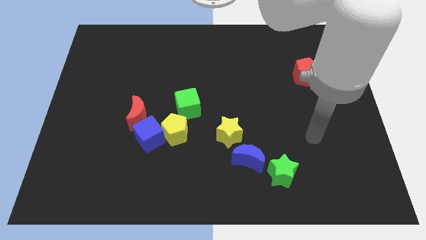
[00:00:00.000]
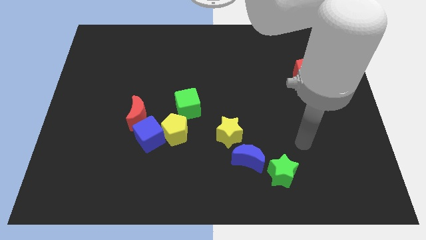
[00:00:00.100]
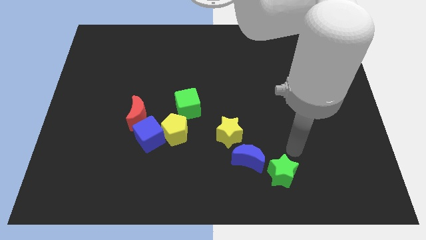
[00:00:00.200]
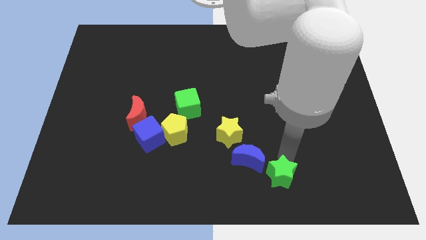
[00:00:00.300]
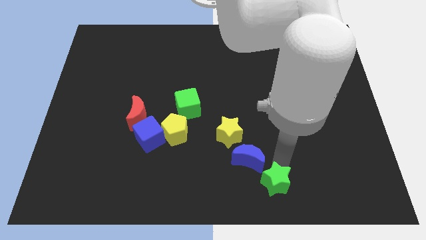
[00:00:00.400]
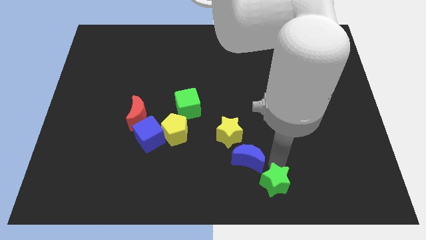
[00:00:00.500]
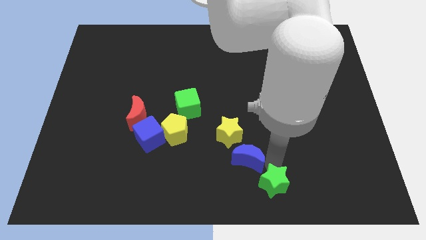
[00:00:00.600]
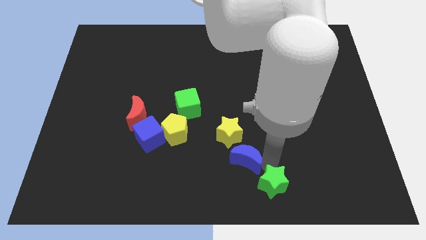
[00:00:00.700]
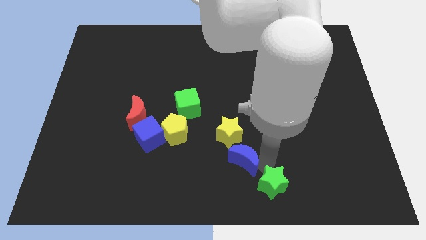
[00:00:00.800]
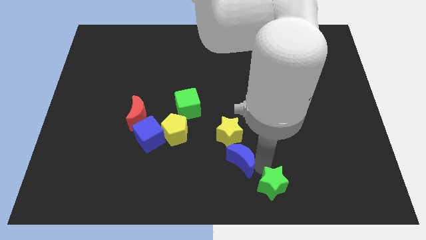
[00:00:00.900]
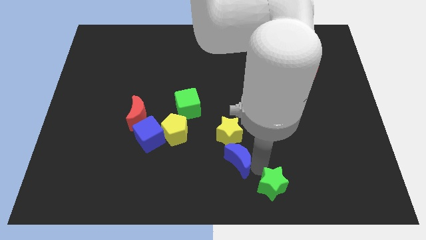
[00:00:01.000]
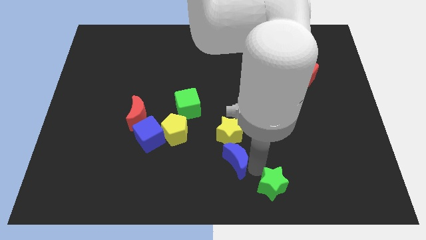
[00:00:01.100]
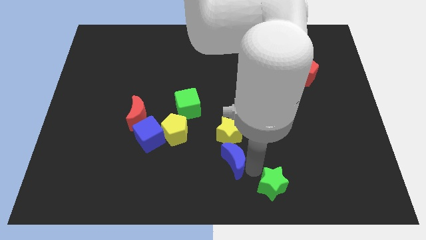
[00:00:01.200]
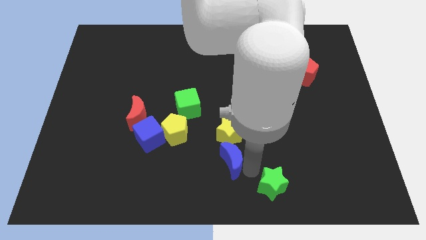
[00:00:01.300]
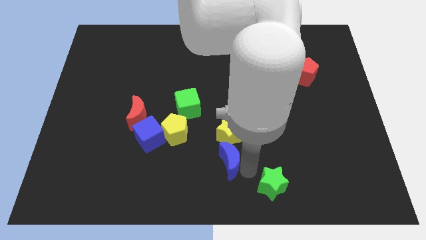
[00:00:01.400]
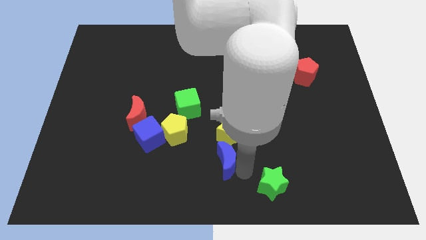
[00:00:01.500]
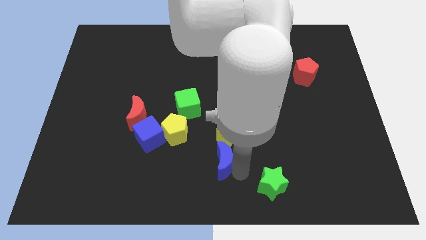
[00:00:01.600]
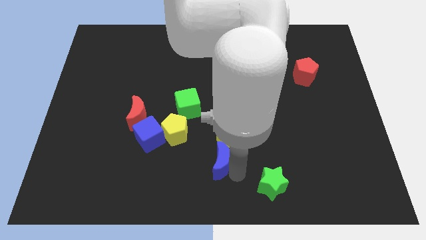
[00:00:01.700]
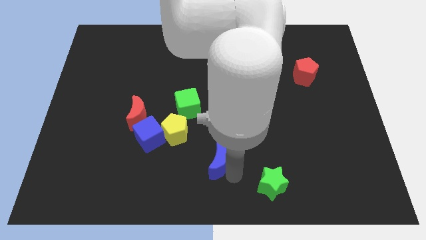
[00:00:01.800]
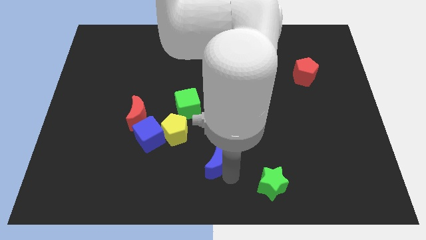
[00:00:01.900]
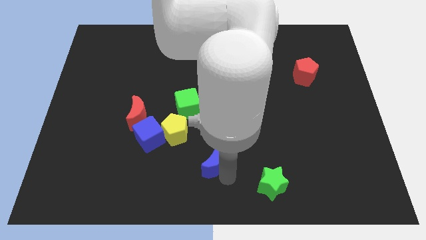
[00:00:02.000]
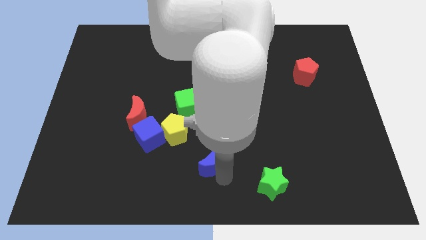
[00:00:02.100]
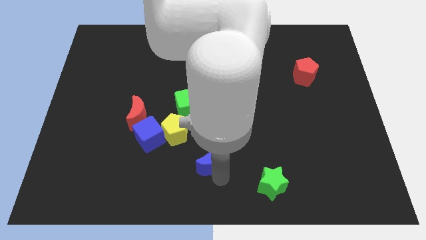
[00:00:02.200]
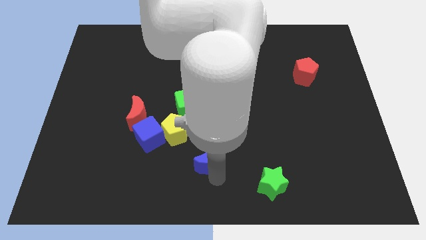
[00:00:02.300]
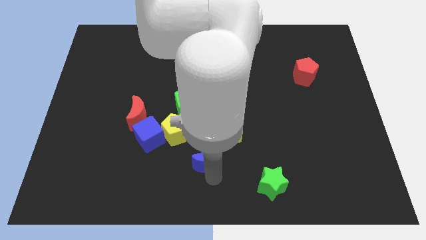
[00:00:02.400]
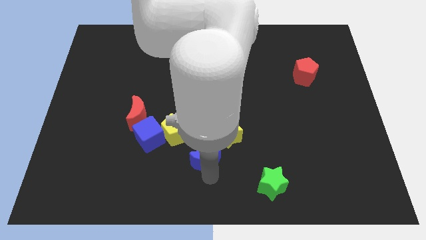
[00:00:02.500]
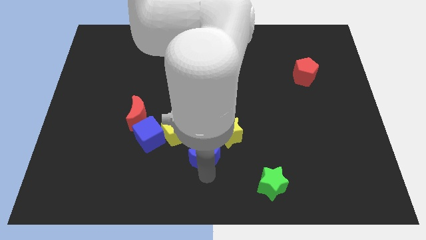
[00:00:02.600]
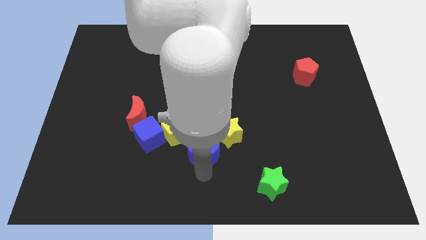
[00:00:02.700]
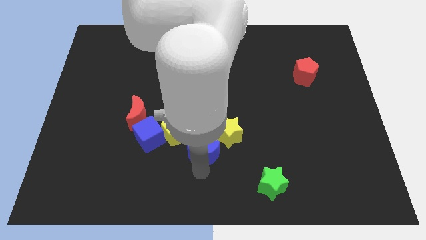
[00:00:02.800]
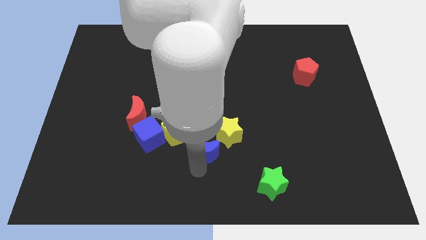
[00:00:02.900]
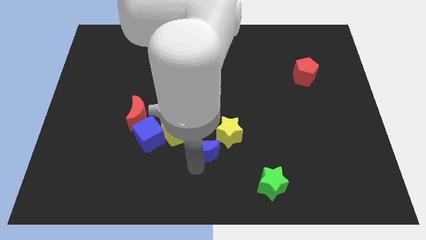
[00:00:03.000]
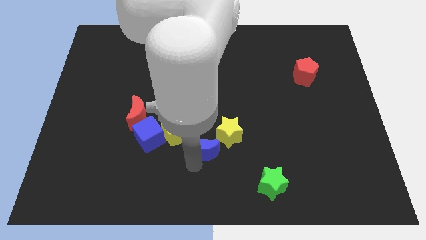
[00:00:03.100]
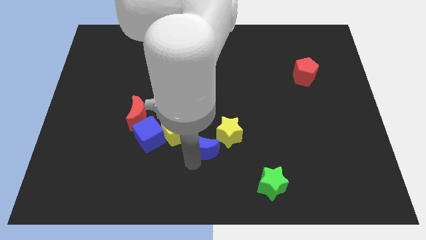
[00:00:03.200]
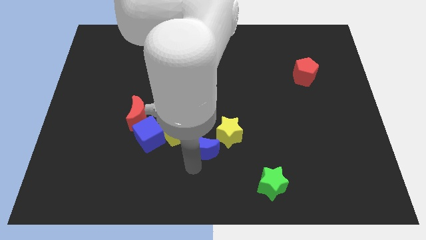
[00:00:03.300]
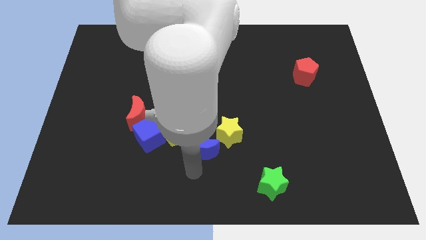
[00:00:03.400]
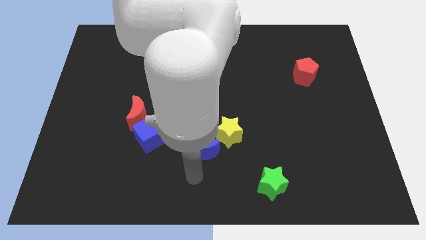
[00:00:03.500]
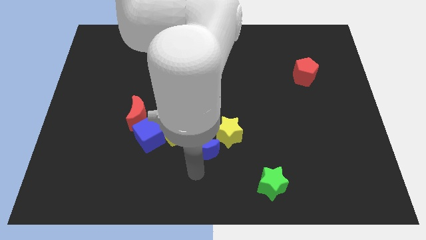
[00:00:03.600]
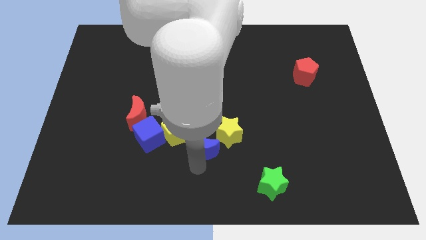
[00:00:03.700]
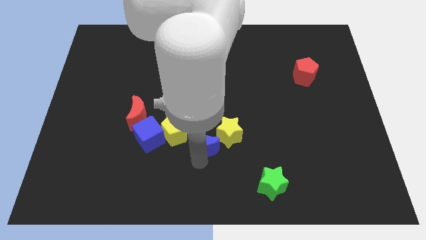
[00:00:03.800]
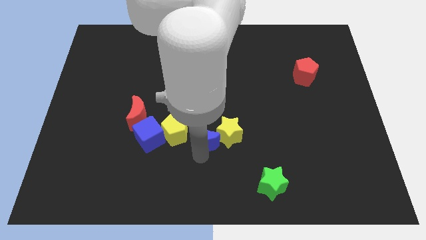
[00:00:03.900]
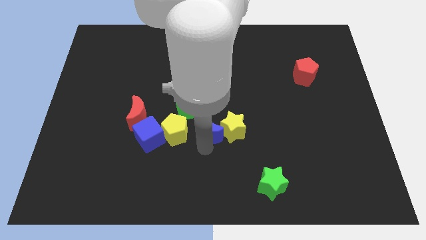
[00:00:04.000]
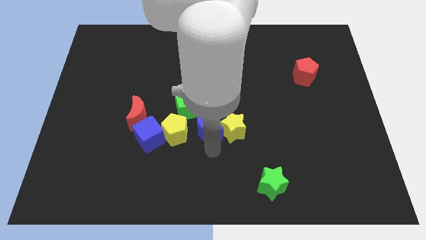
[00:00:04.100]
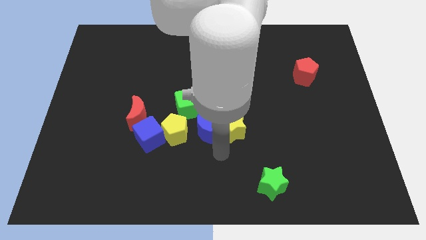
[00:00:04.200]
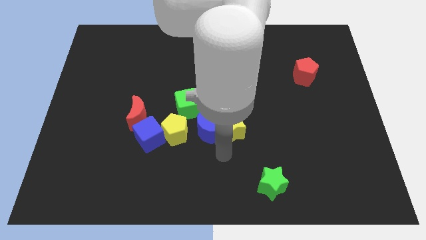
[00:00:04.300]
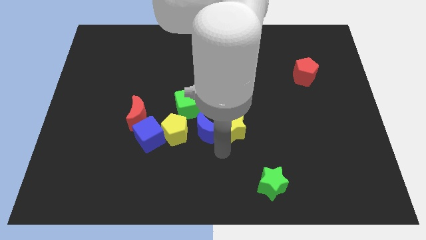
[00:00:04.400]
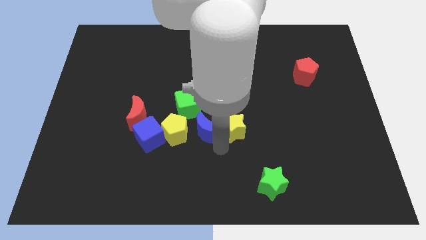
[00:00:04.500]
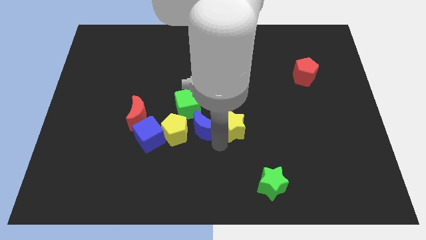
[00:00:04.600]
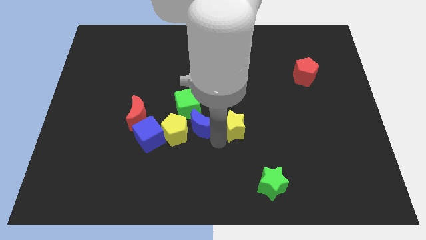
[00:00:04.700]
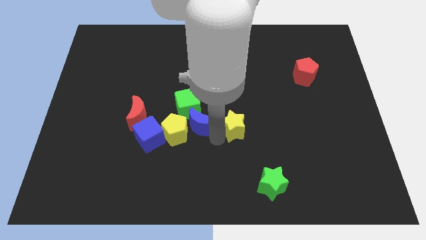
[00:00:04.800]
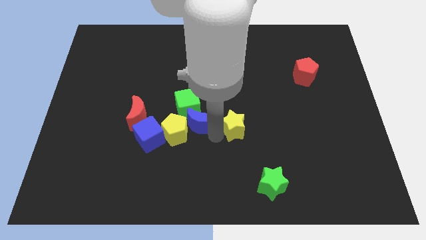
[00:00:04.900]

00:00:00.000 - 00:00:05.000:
push the blue moon to the green cube

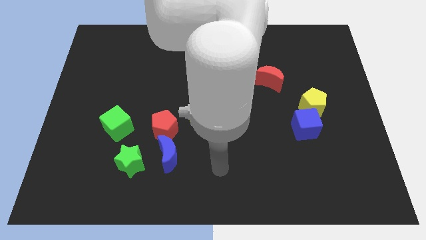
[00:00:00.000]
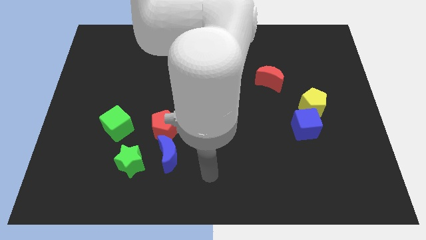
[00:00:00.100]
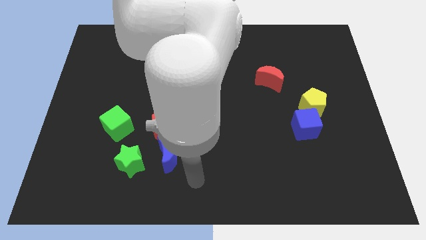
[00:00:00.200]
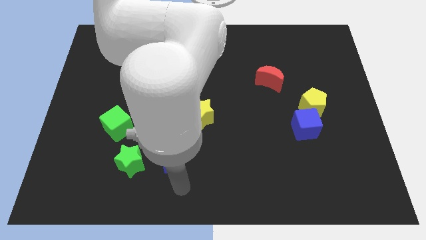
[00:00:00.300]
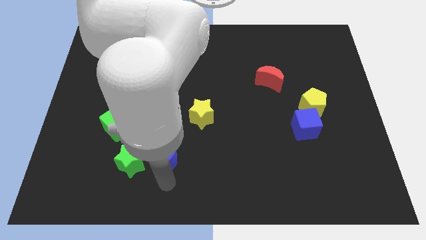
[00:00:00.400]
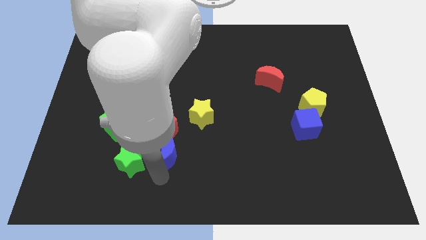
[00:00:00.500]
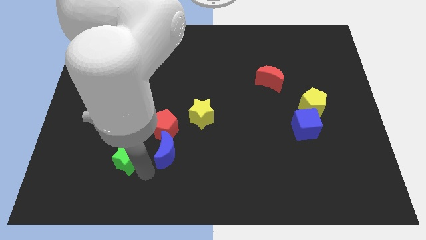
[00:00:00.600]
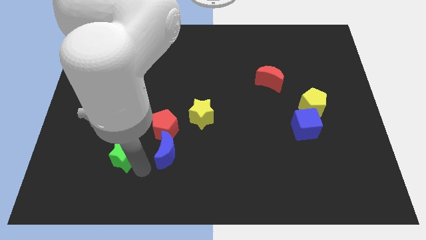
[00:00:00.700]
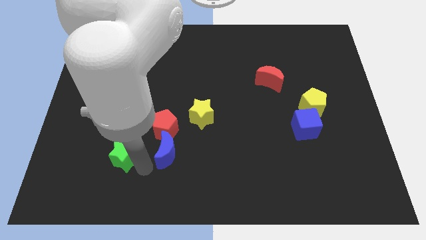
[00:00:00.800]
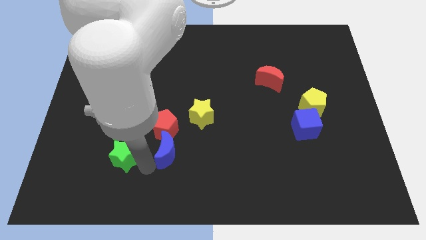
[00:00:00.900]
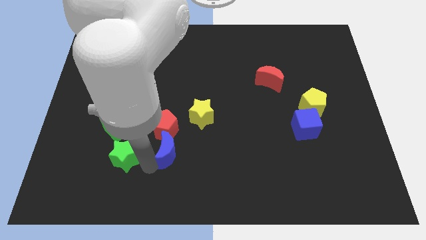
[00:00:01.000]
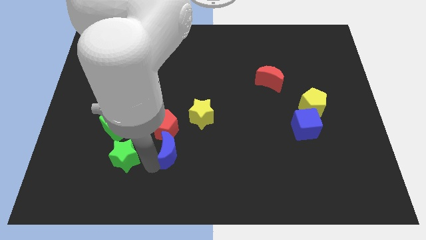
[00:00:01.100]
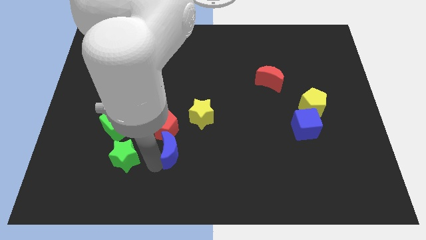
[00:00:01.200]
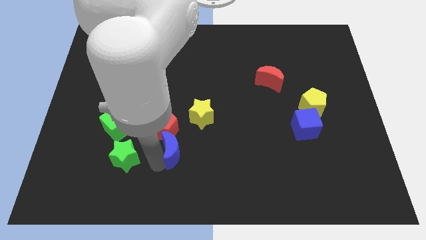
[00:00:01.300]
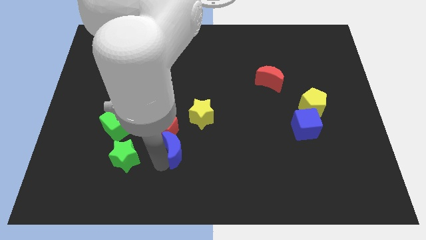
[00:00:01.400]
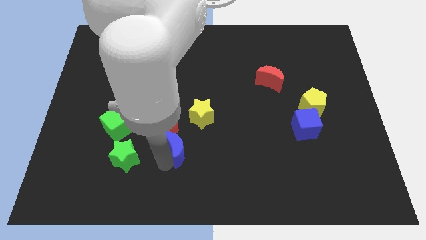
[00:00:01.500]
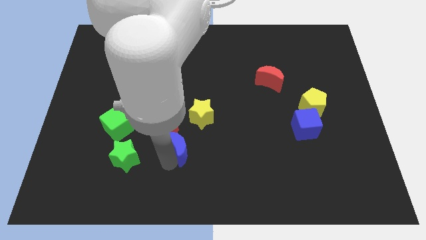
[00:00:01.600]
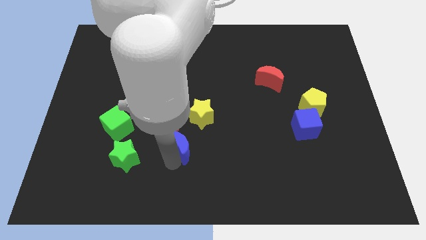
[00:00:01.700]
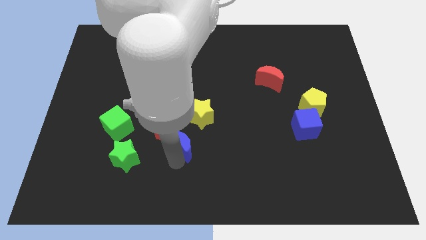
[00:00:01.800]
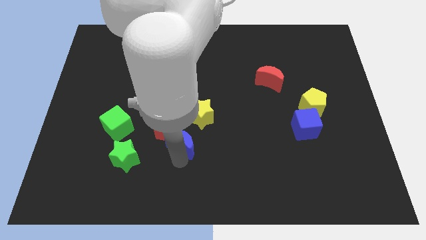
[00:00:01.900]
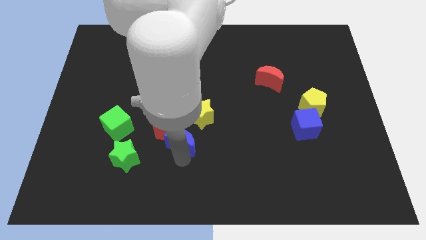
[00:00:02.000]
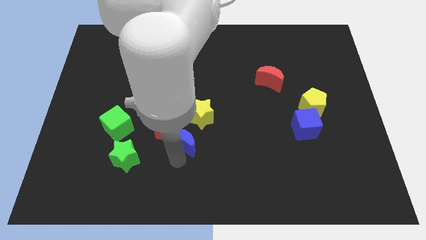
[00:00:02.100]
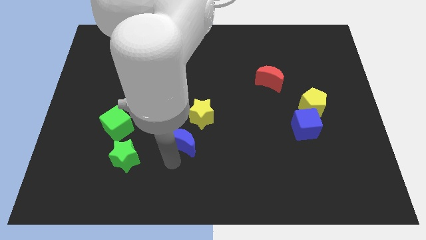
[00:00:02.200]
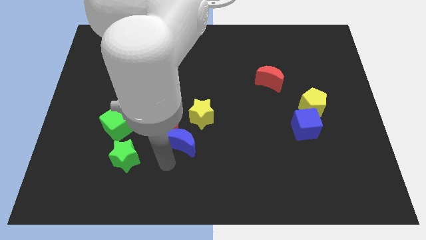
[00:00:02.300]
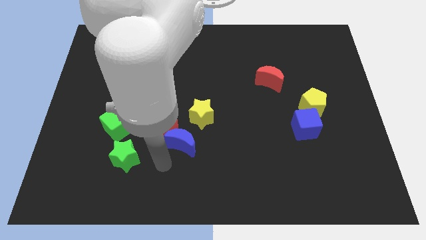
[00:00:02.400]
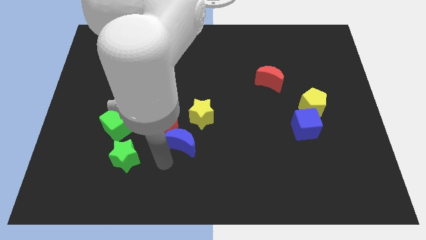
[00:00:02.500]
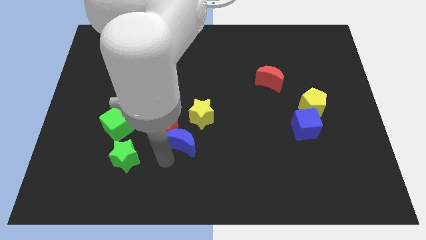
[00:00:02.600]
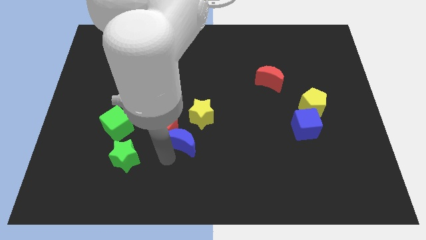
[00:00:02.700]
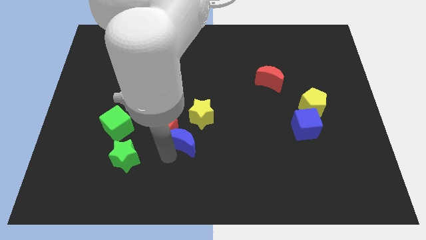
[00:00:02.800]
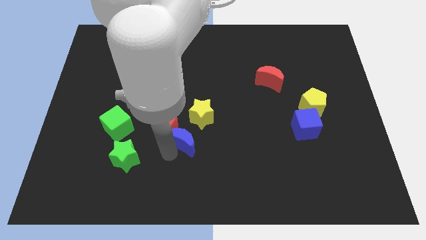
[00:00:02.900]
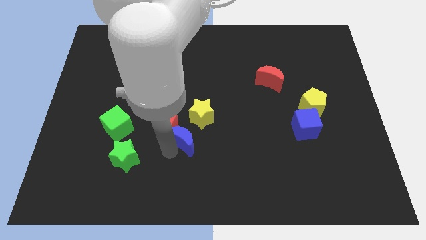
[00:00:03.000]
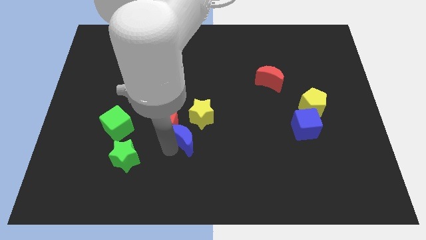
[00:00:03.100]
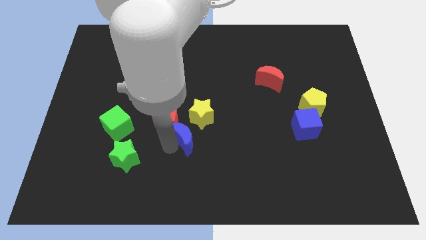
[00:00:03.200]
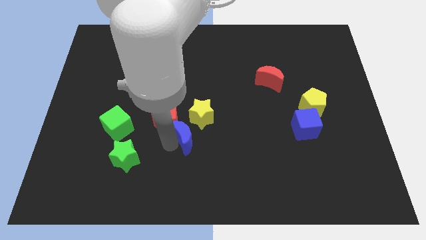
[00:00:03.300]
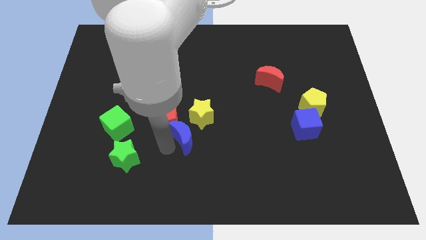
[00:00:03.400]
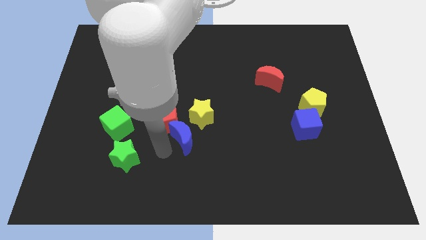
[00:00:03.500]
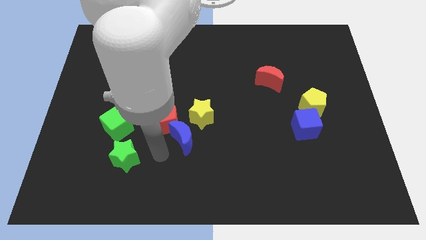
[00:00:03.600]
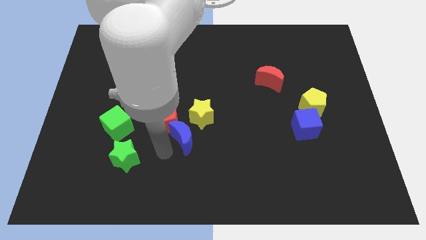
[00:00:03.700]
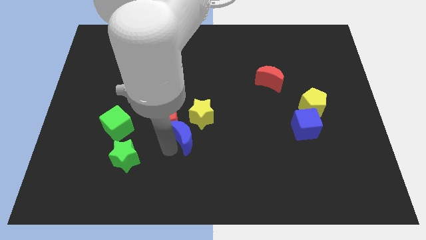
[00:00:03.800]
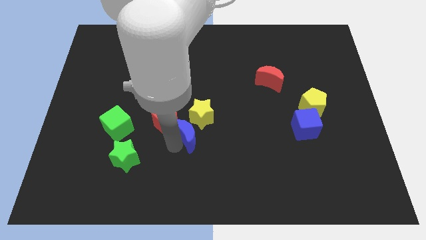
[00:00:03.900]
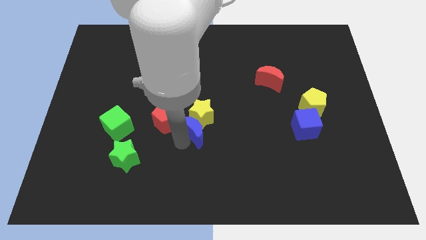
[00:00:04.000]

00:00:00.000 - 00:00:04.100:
slide the blue moon next to the yellow star
